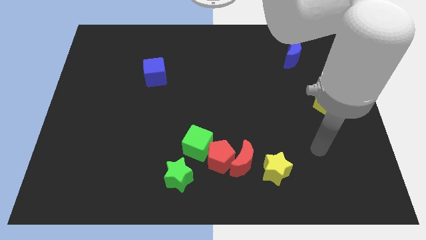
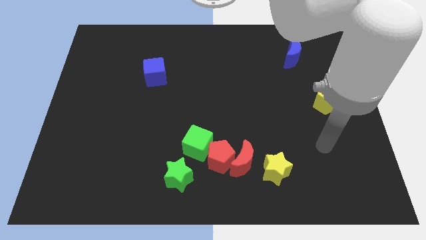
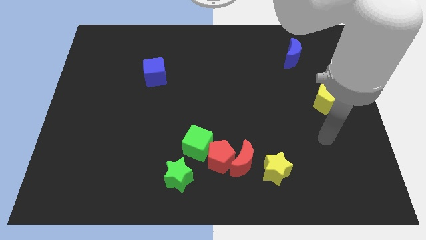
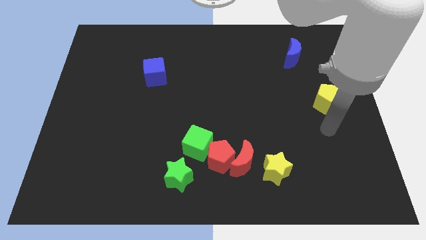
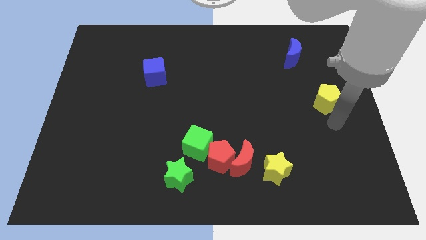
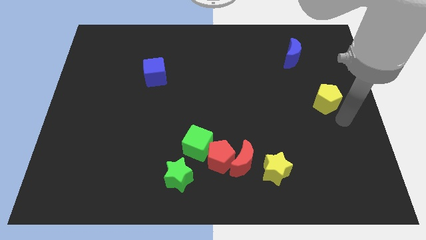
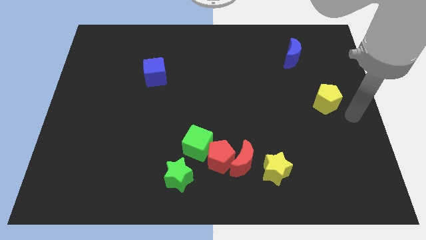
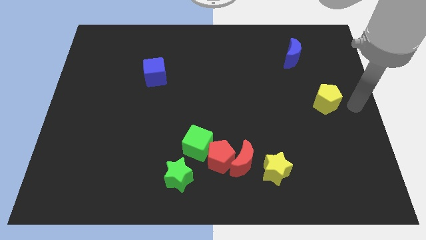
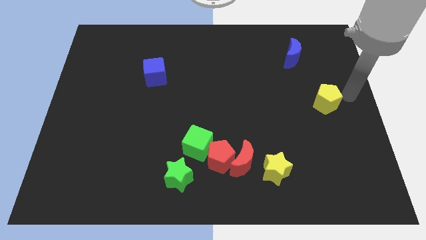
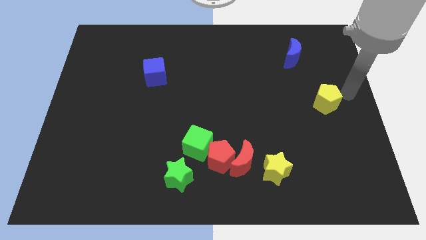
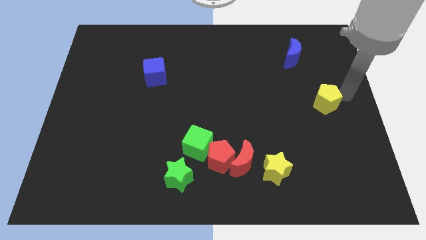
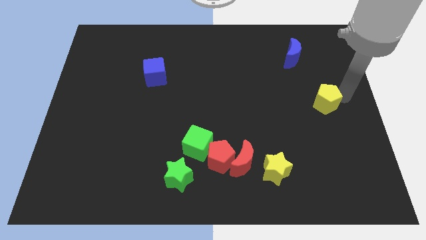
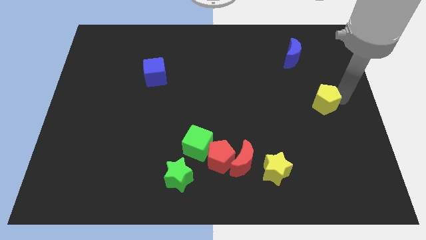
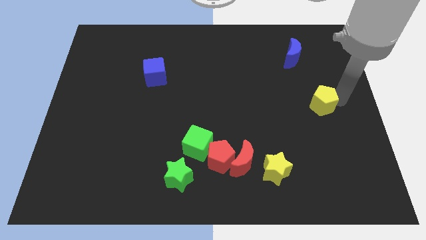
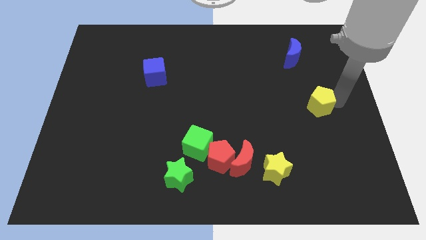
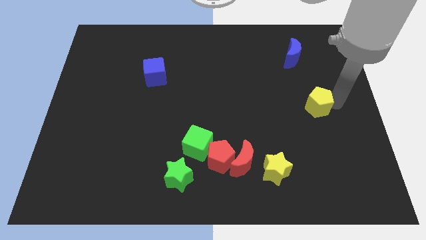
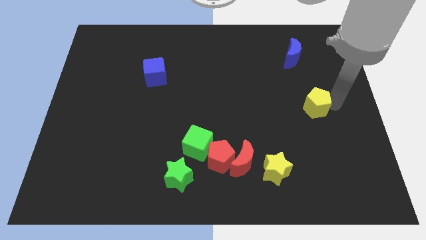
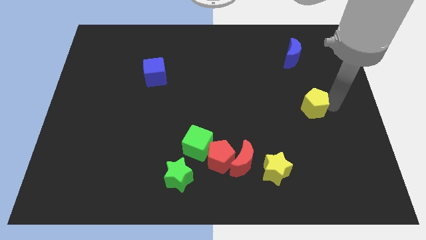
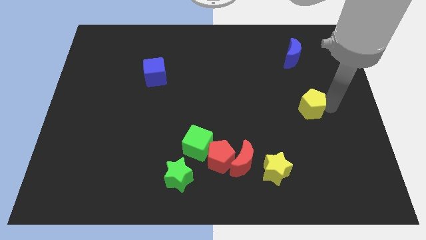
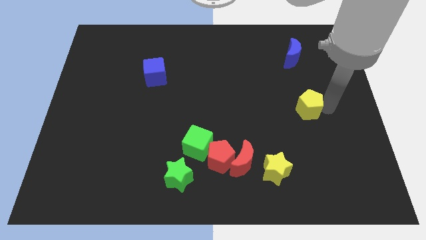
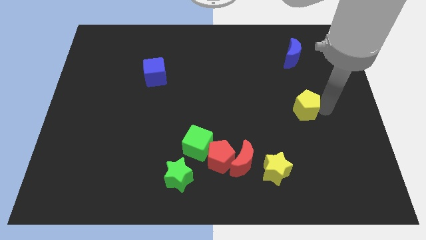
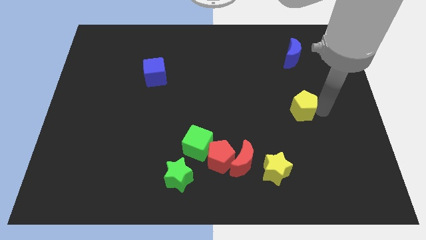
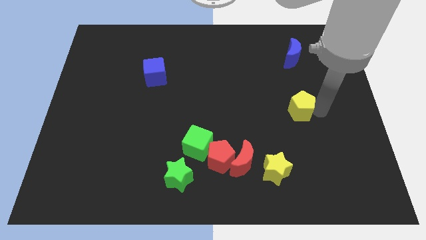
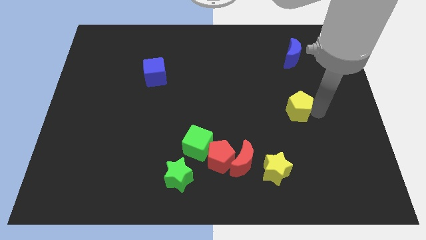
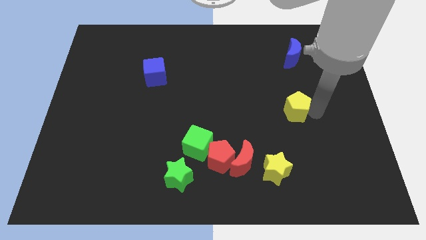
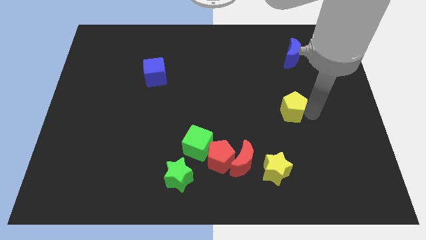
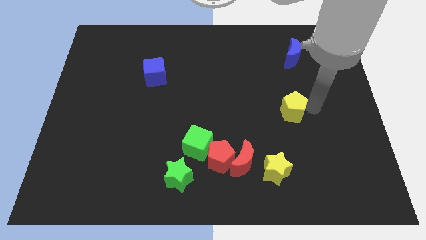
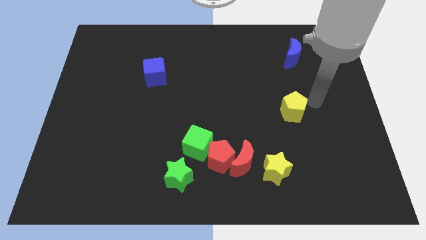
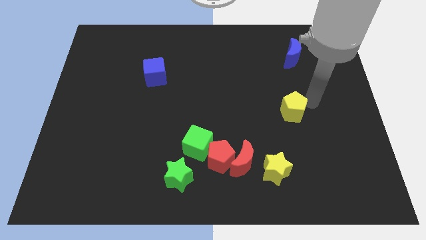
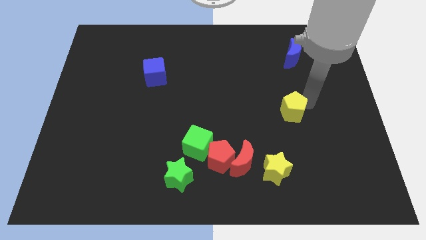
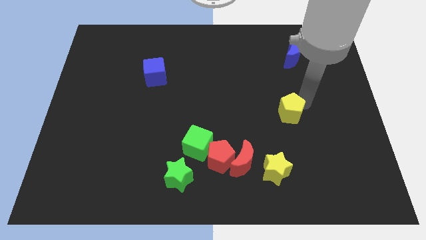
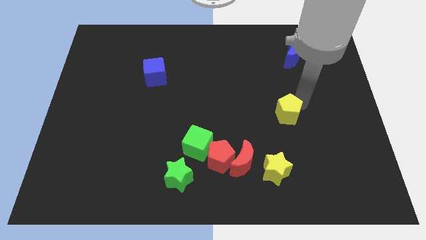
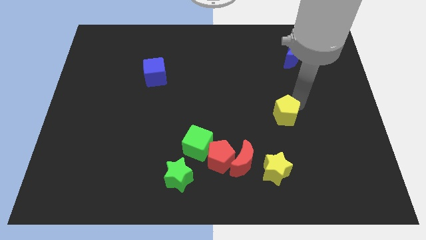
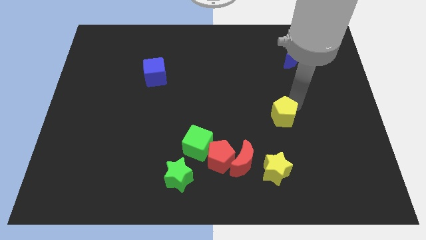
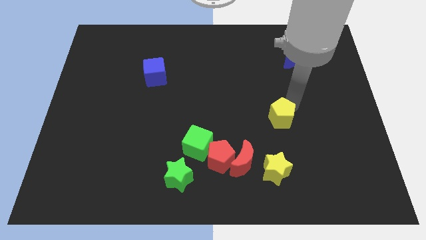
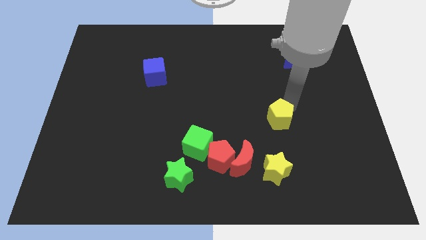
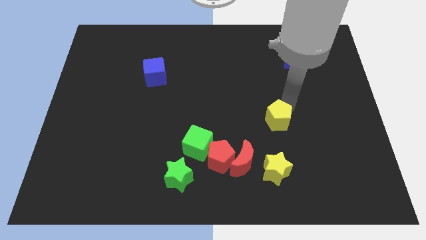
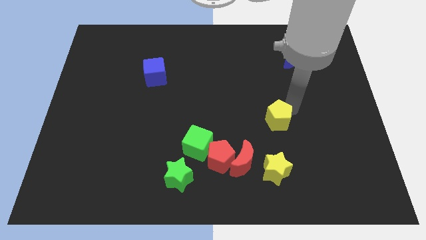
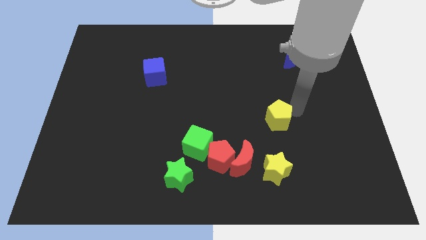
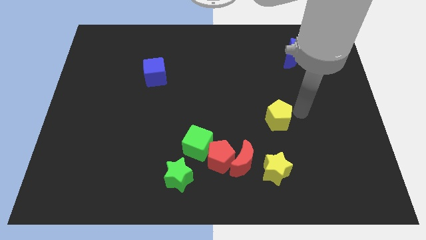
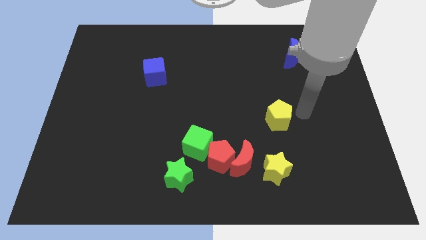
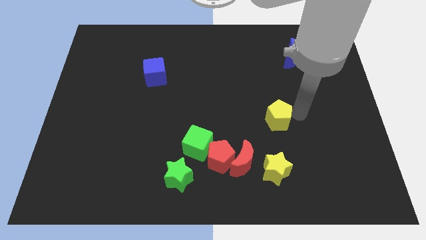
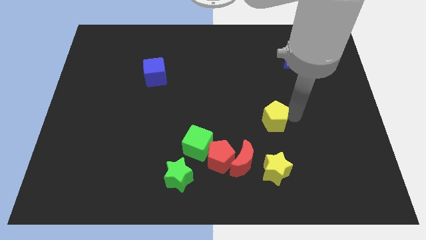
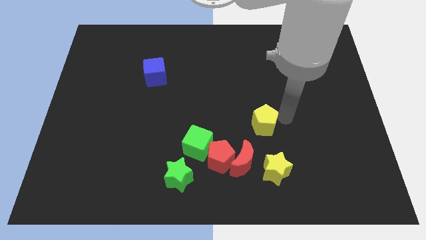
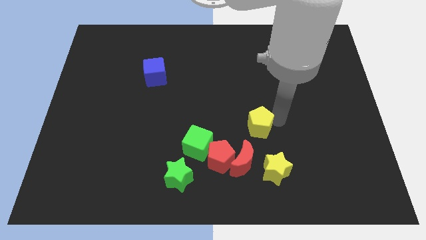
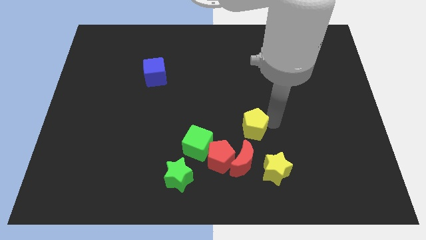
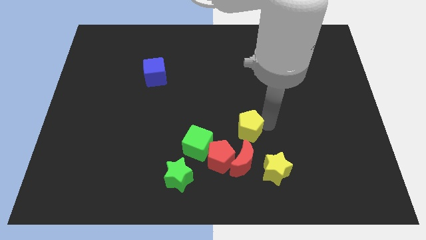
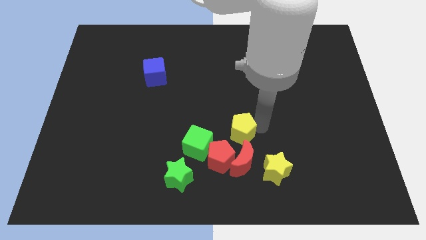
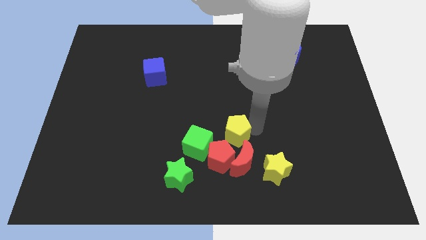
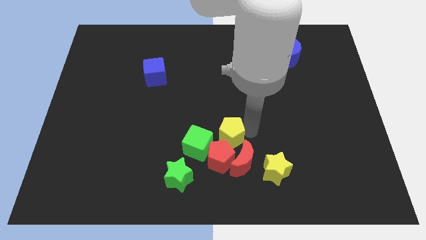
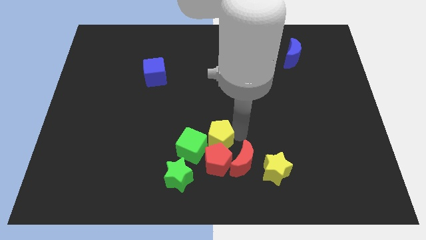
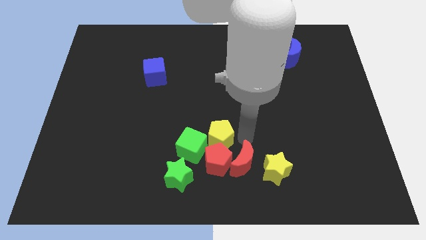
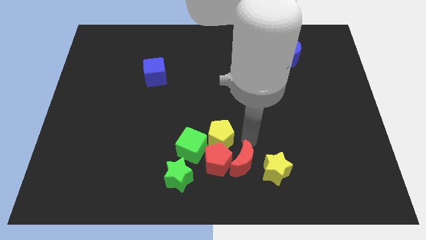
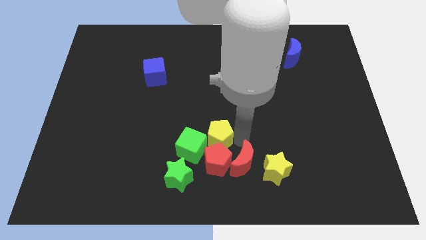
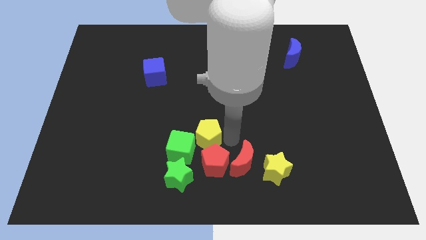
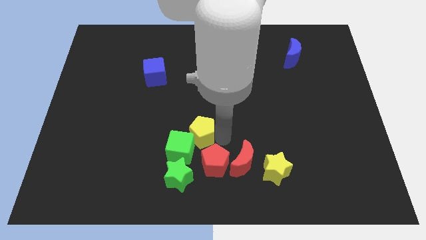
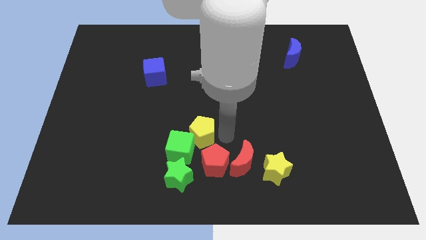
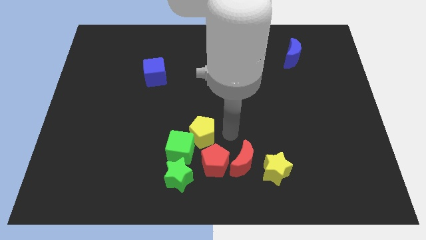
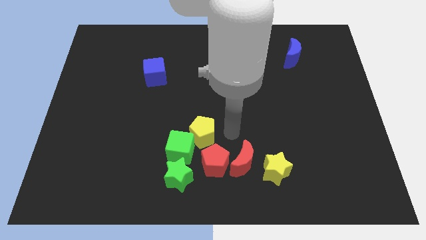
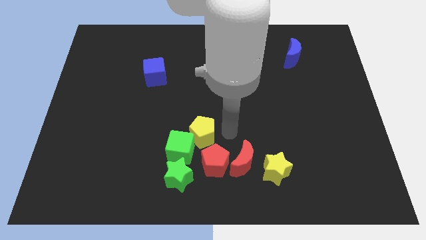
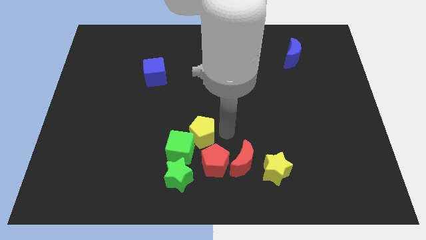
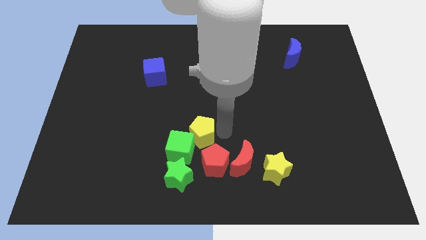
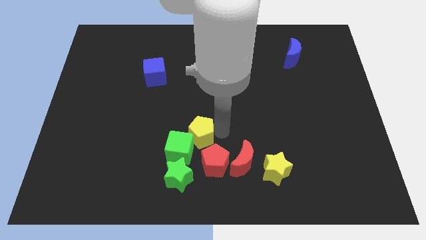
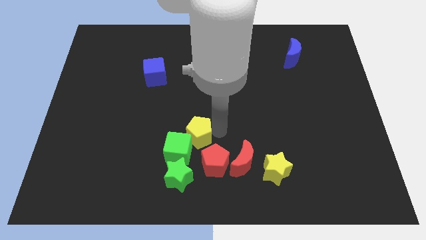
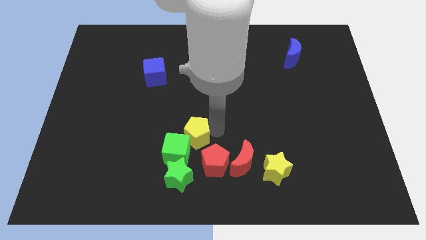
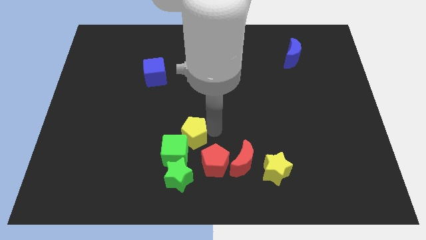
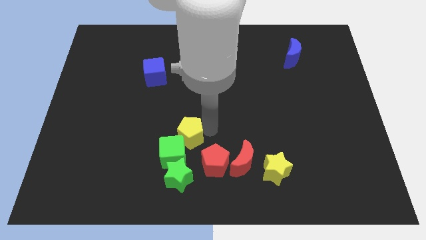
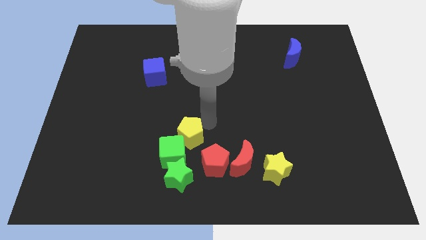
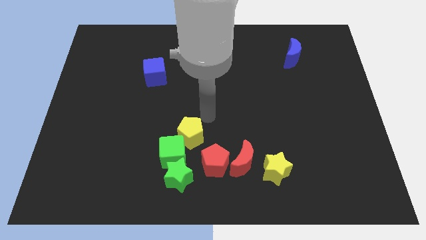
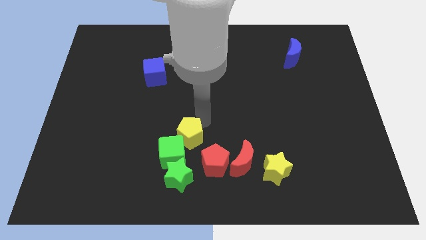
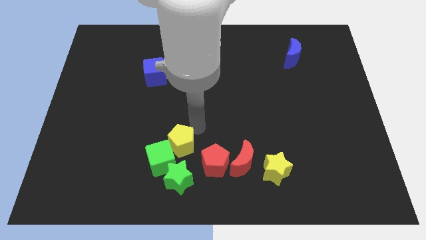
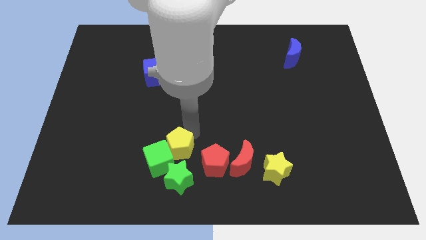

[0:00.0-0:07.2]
slide the yellow pentagon to the left of the red pentagon
